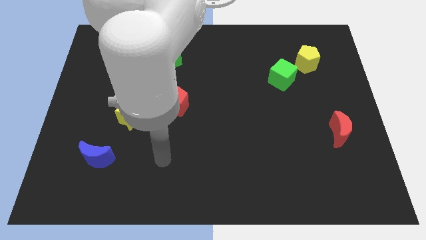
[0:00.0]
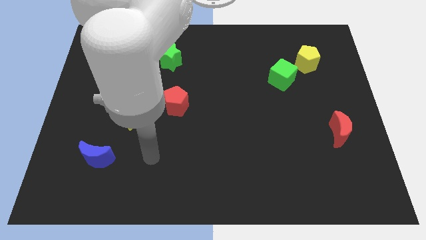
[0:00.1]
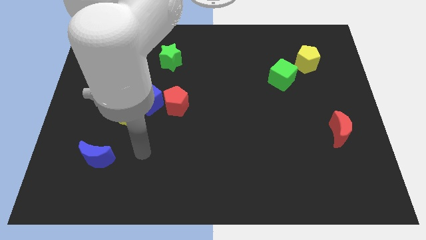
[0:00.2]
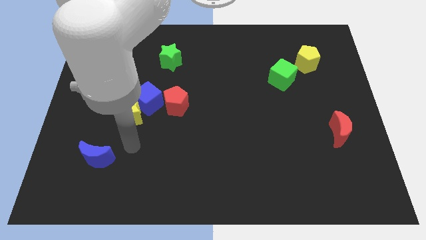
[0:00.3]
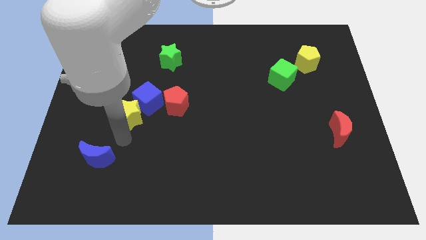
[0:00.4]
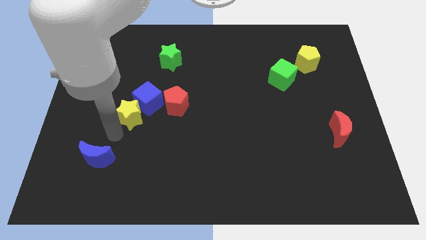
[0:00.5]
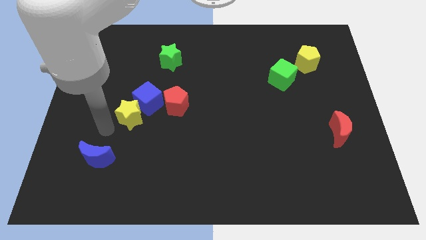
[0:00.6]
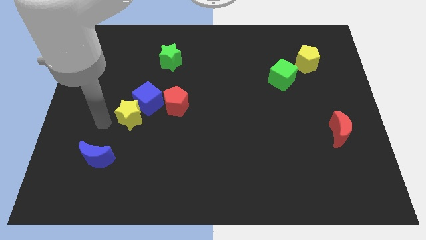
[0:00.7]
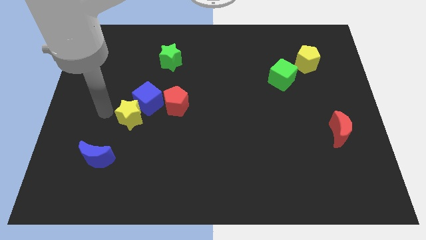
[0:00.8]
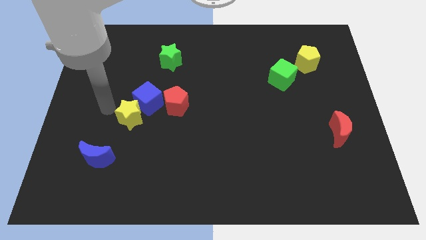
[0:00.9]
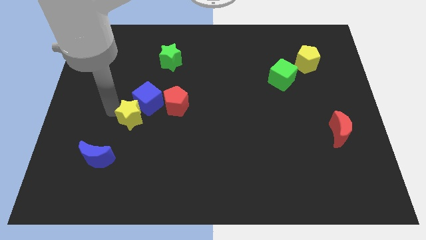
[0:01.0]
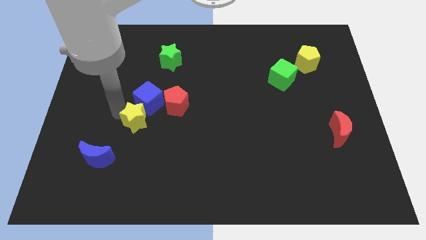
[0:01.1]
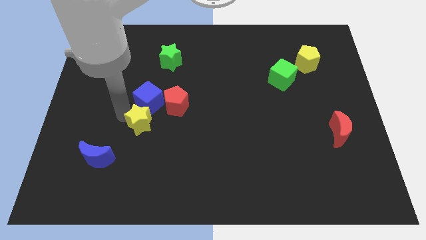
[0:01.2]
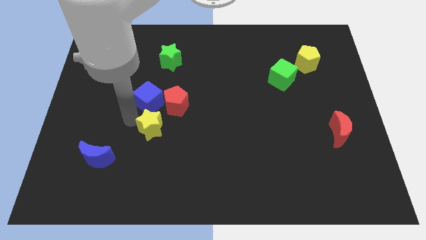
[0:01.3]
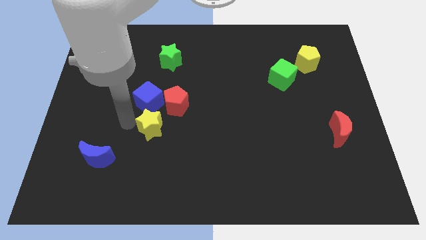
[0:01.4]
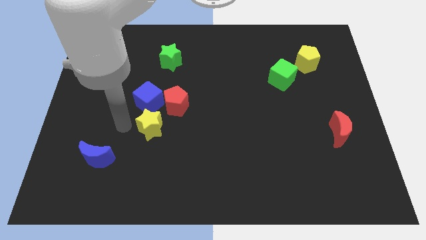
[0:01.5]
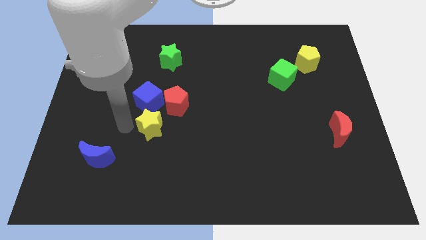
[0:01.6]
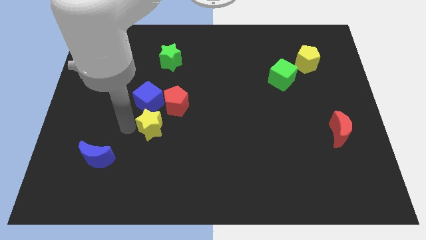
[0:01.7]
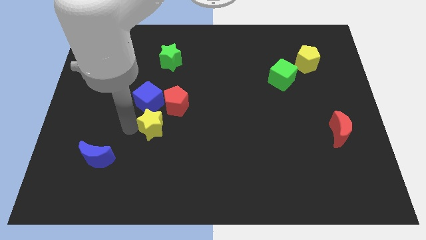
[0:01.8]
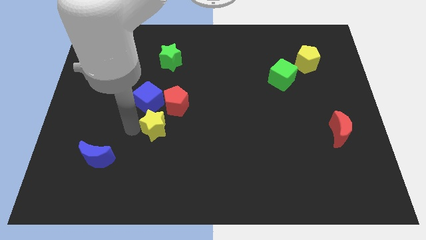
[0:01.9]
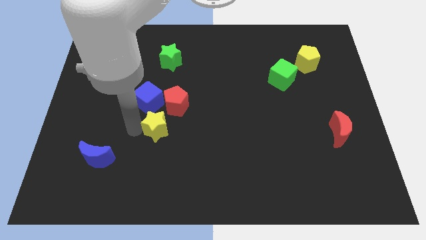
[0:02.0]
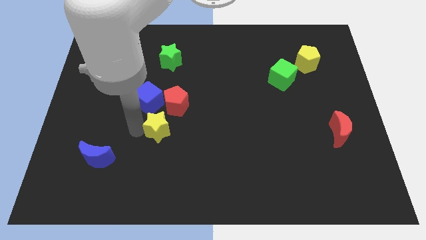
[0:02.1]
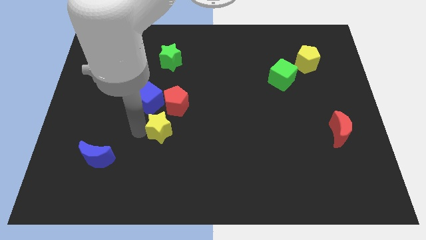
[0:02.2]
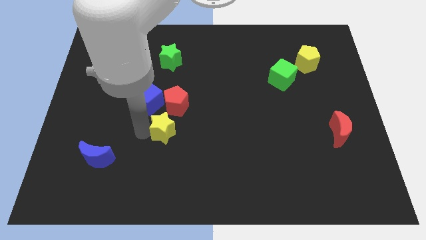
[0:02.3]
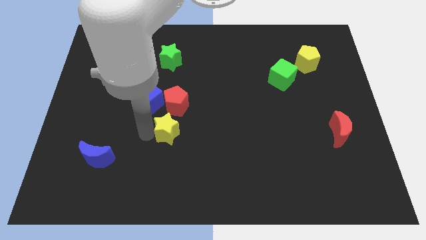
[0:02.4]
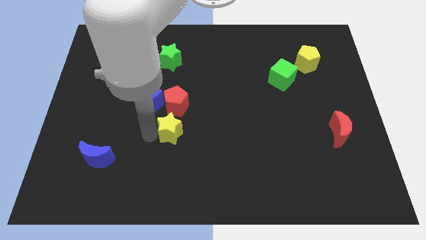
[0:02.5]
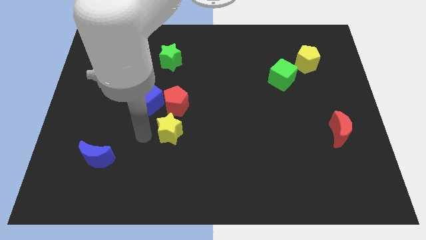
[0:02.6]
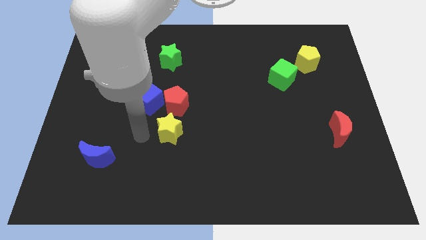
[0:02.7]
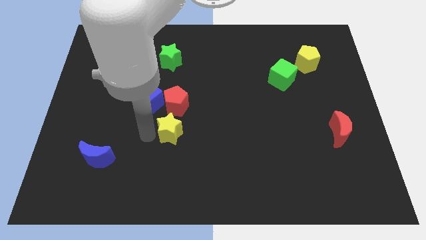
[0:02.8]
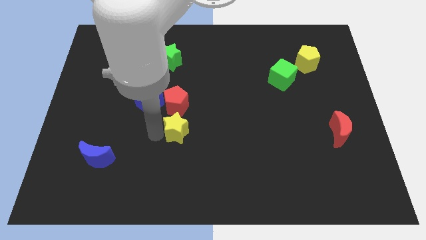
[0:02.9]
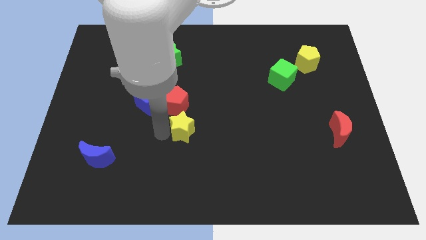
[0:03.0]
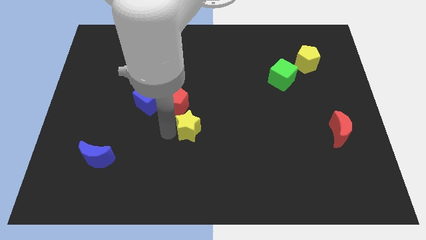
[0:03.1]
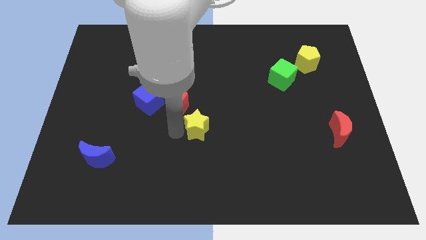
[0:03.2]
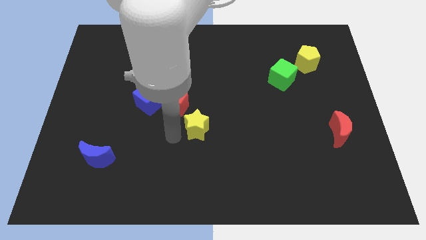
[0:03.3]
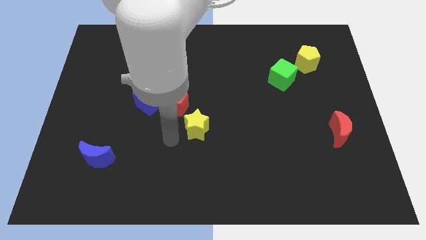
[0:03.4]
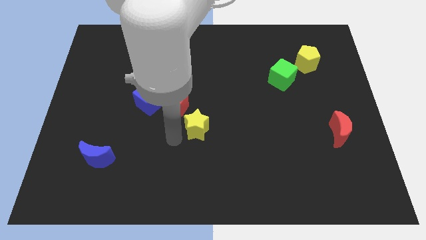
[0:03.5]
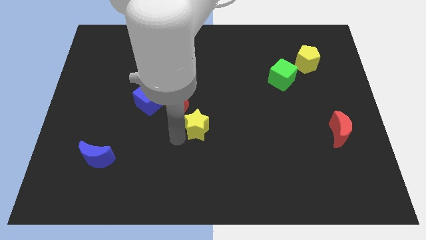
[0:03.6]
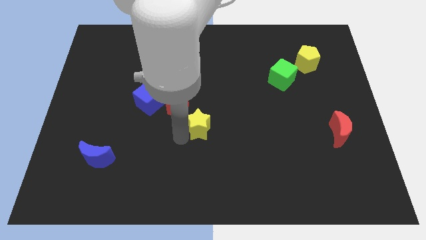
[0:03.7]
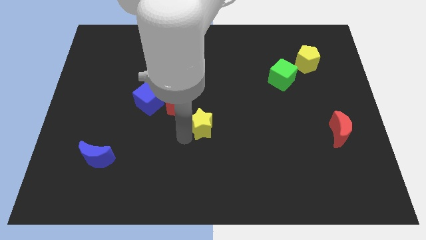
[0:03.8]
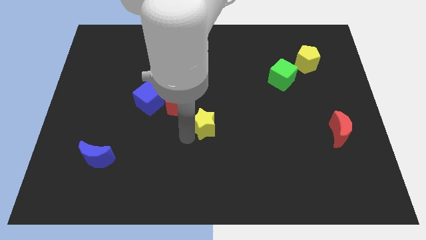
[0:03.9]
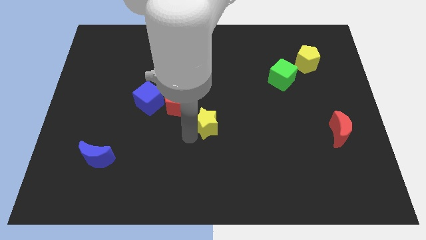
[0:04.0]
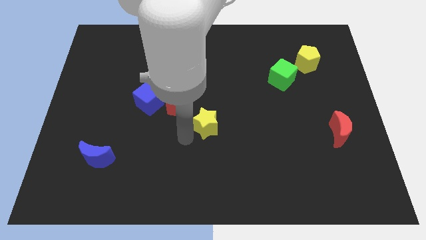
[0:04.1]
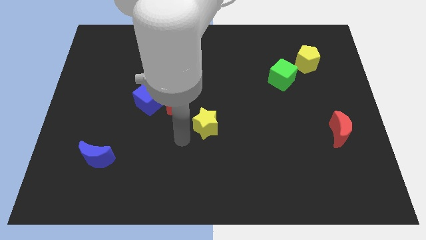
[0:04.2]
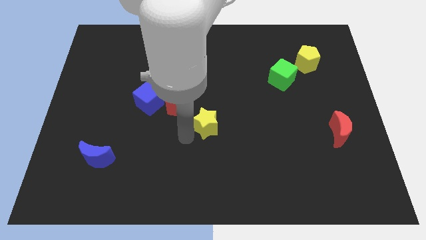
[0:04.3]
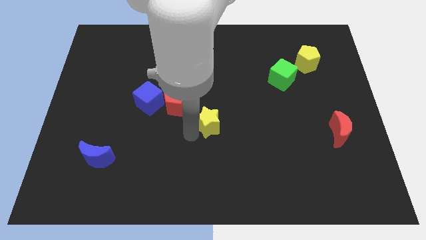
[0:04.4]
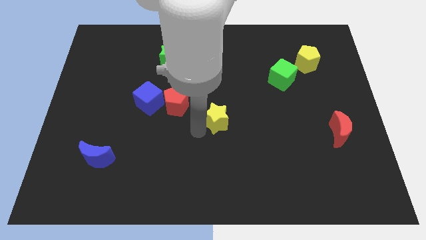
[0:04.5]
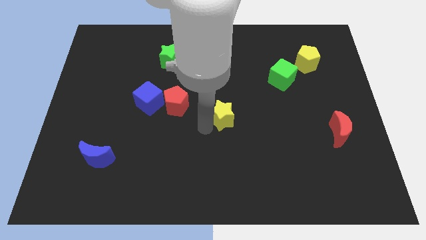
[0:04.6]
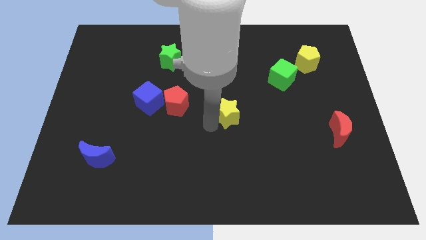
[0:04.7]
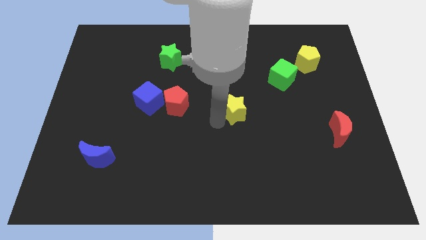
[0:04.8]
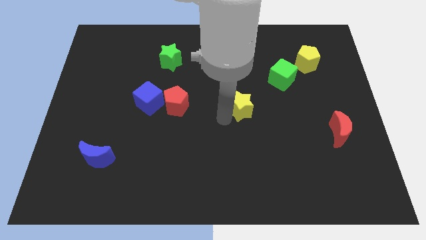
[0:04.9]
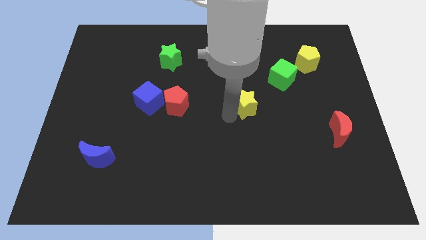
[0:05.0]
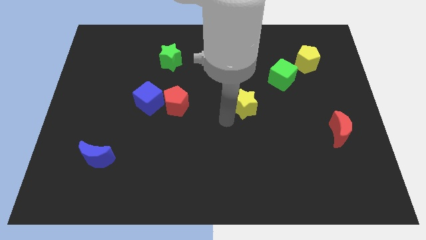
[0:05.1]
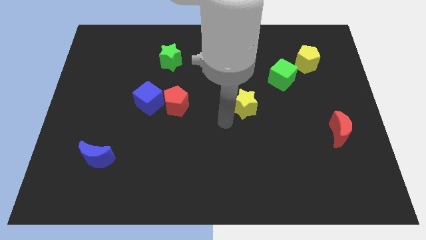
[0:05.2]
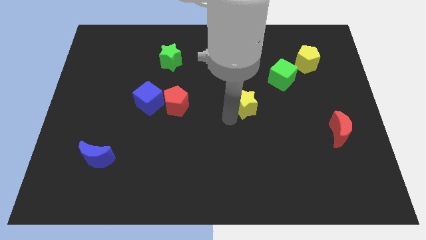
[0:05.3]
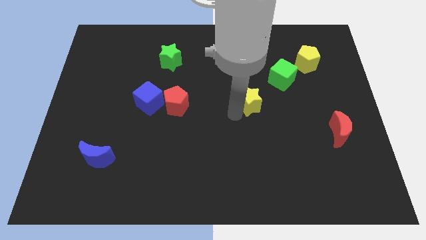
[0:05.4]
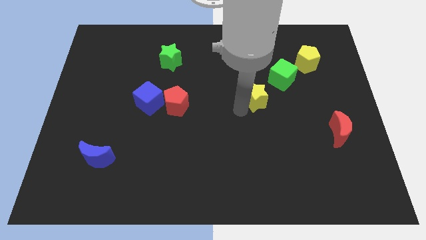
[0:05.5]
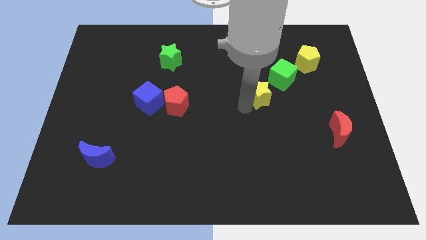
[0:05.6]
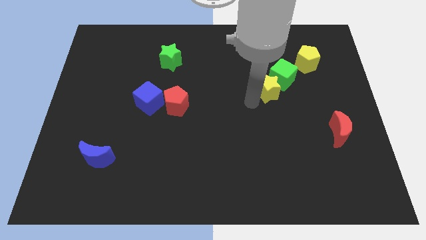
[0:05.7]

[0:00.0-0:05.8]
put the yellow star to the green cube

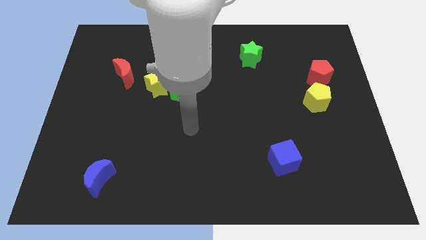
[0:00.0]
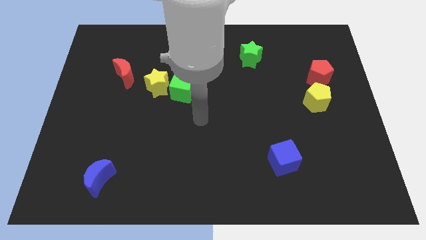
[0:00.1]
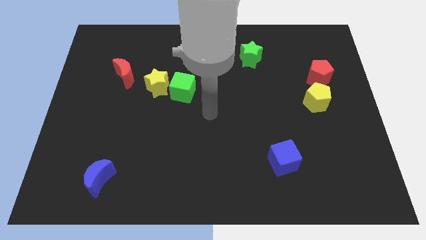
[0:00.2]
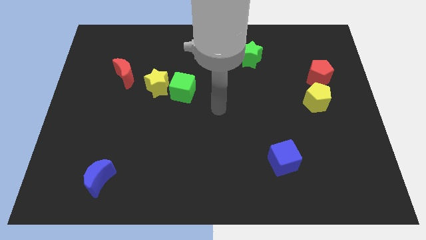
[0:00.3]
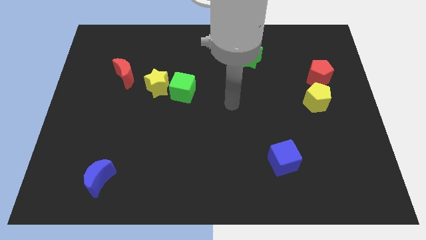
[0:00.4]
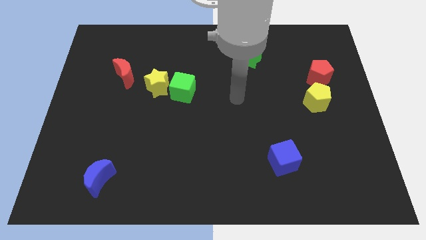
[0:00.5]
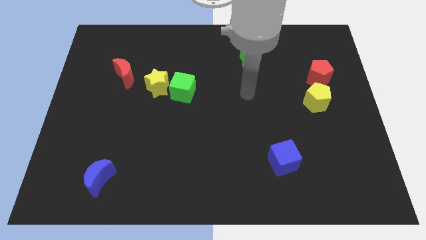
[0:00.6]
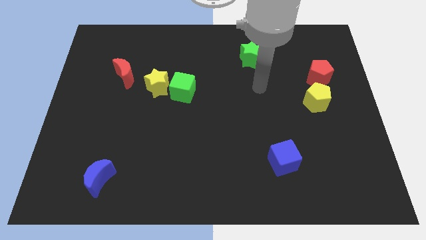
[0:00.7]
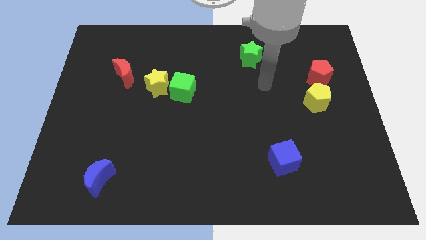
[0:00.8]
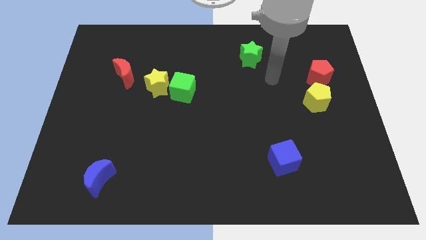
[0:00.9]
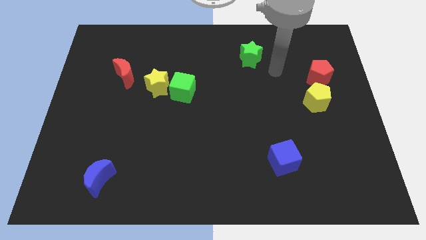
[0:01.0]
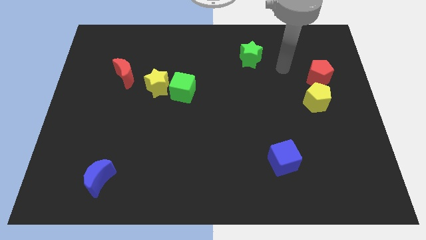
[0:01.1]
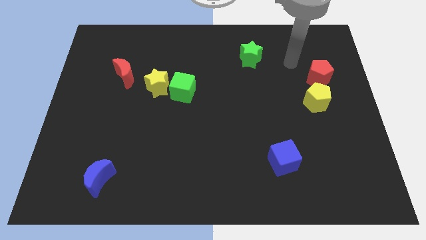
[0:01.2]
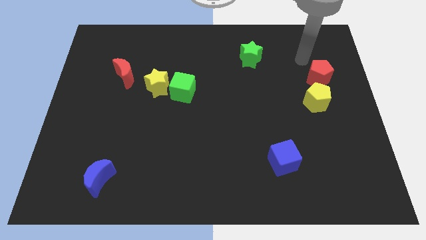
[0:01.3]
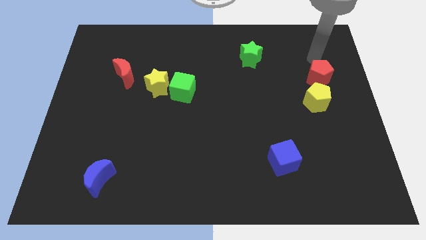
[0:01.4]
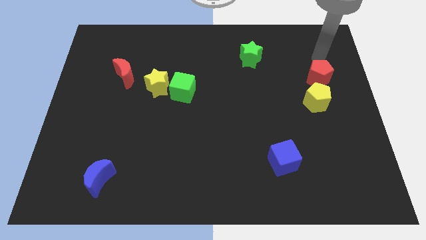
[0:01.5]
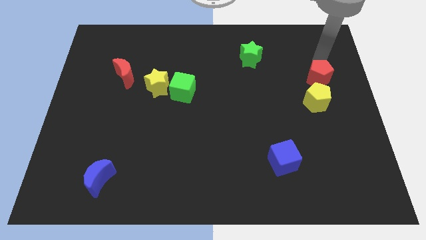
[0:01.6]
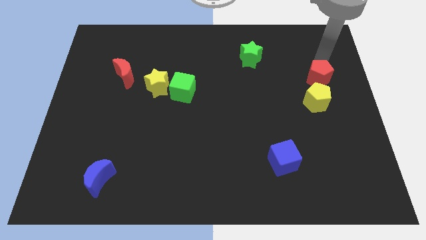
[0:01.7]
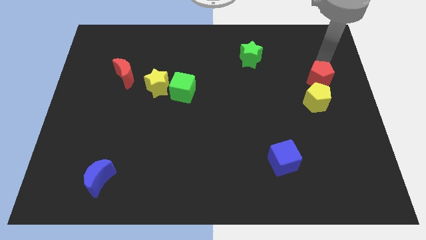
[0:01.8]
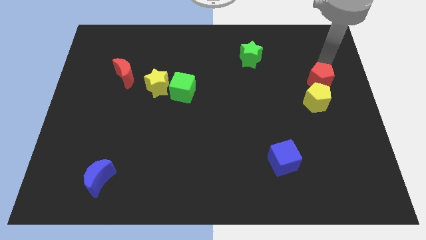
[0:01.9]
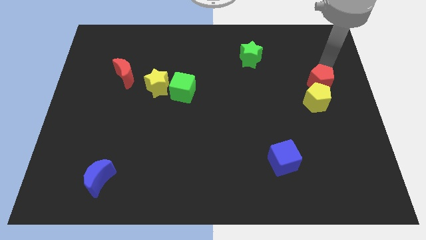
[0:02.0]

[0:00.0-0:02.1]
move the red pentagon close to the yellow pentagon

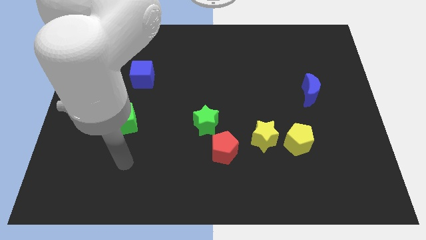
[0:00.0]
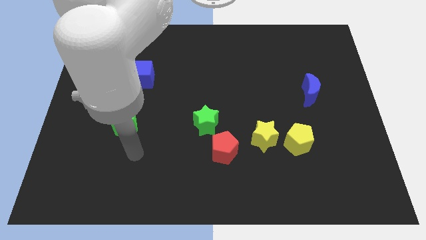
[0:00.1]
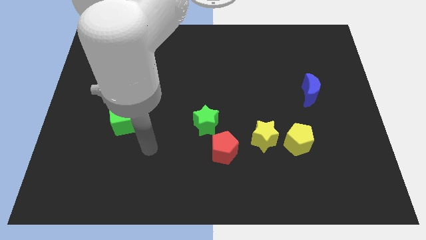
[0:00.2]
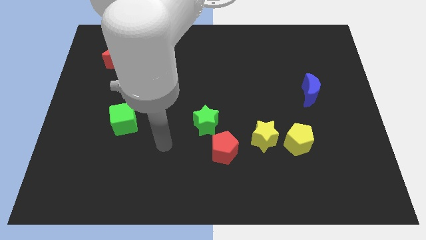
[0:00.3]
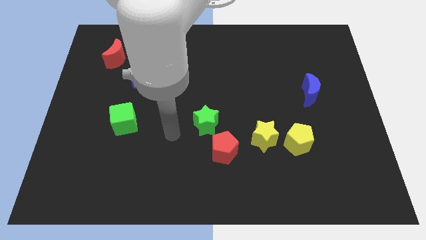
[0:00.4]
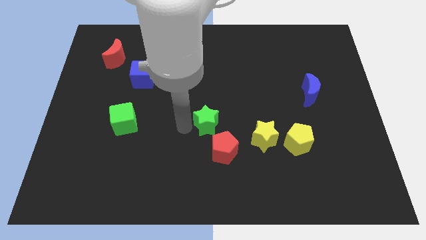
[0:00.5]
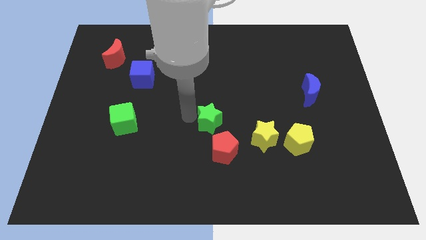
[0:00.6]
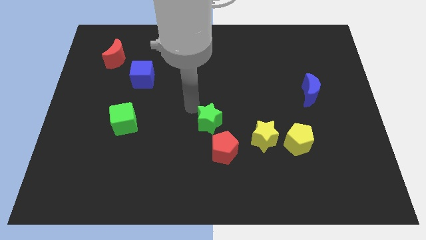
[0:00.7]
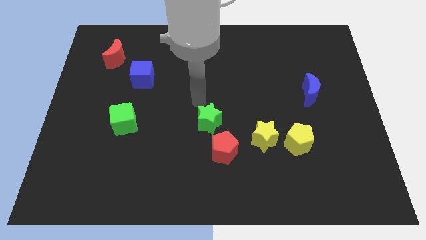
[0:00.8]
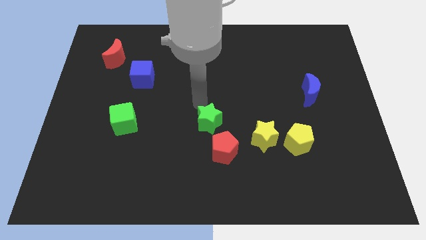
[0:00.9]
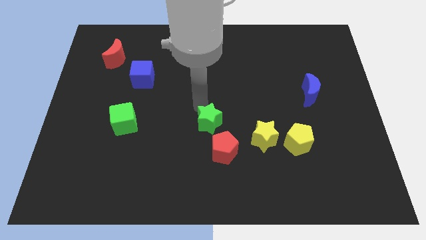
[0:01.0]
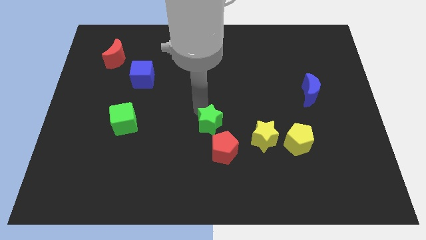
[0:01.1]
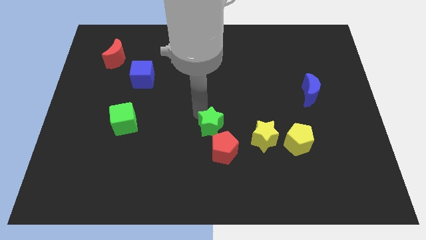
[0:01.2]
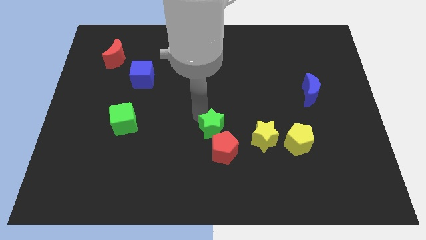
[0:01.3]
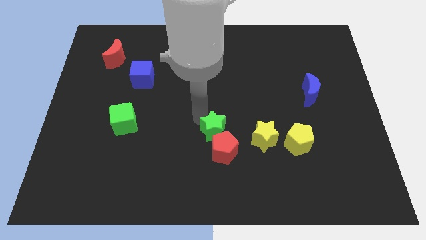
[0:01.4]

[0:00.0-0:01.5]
slide the green star towards the red pentagon
